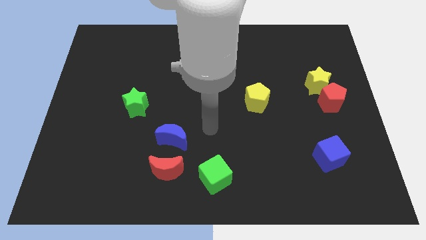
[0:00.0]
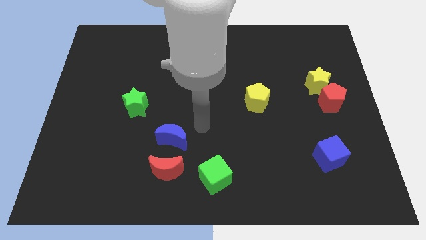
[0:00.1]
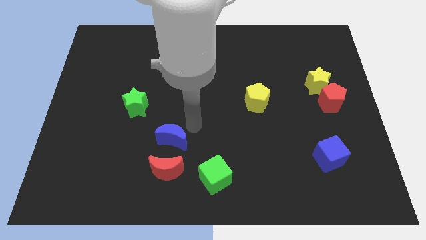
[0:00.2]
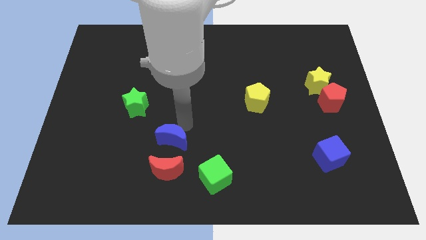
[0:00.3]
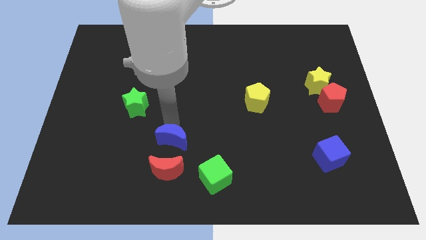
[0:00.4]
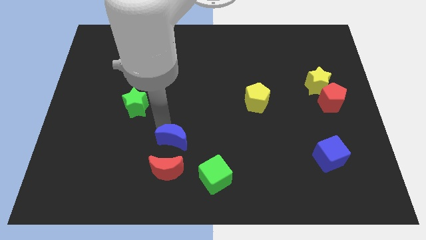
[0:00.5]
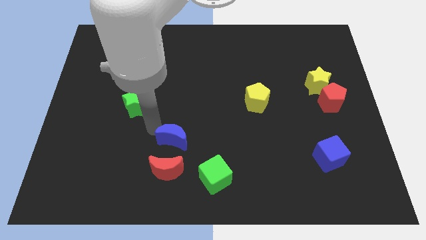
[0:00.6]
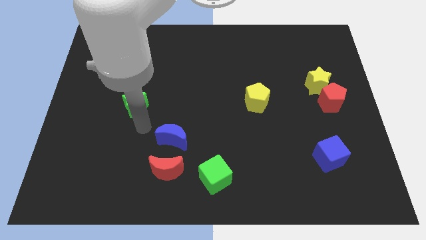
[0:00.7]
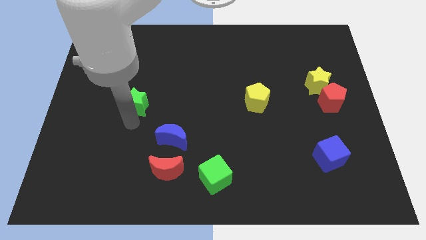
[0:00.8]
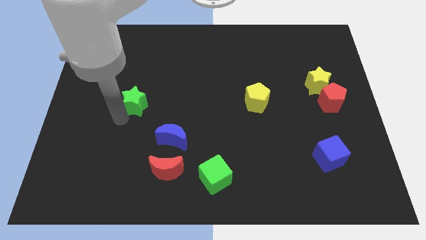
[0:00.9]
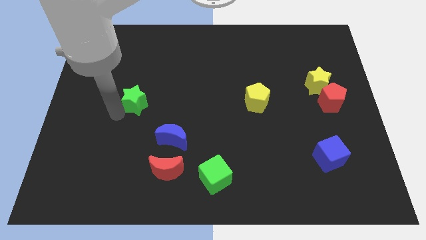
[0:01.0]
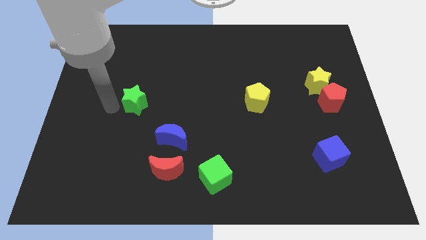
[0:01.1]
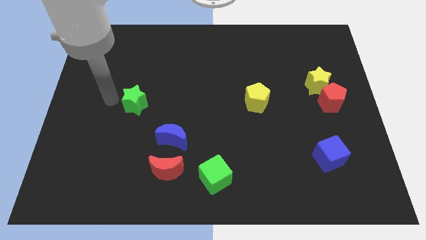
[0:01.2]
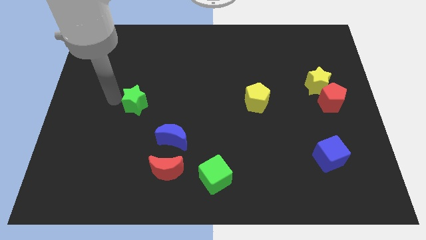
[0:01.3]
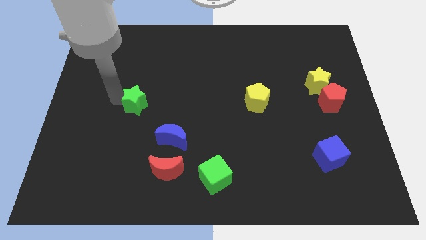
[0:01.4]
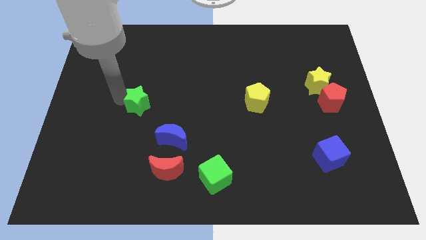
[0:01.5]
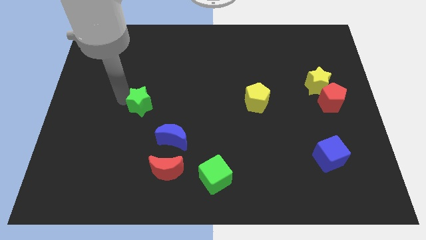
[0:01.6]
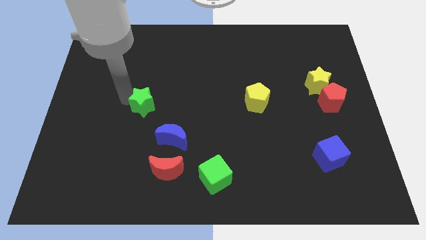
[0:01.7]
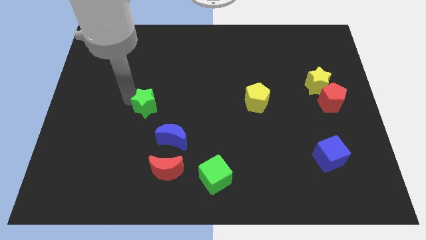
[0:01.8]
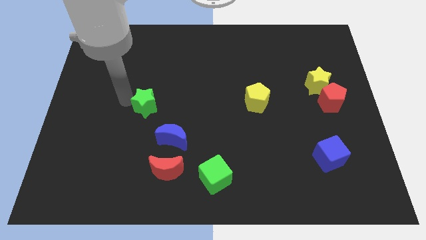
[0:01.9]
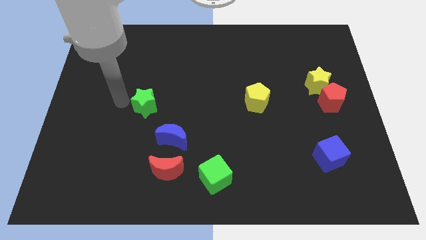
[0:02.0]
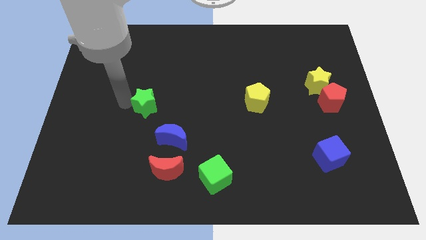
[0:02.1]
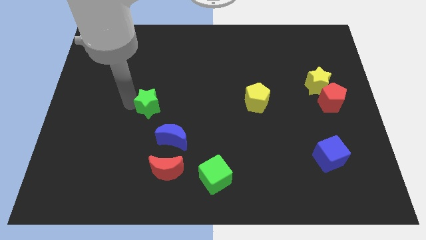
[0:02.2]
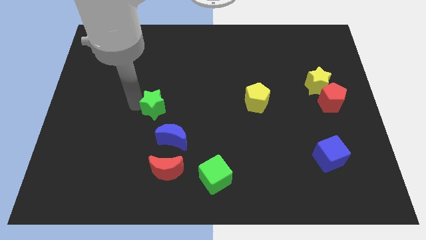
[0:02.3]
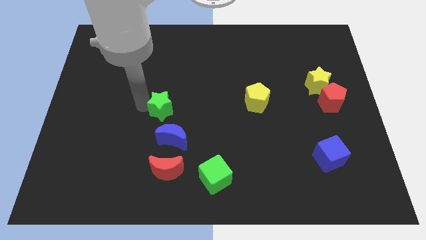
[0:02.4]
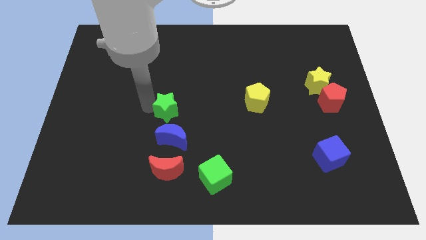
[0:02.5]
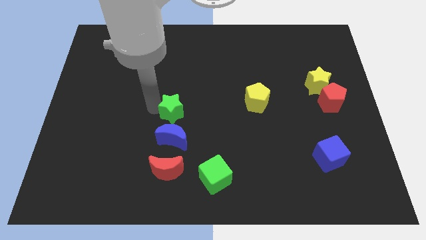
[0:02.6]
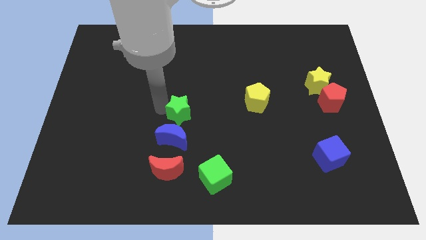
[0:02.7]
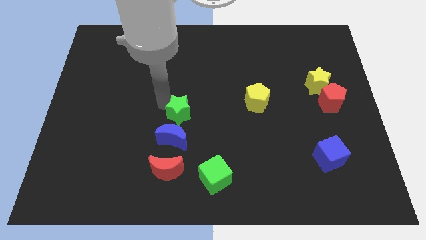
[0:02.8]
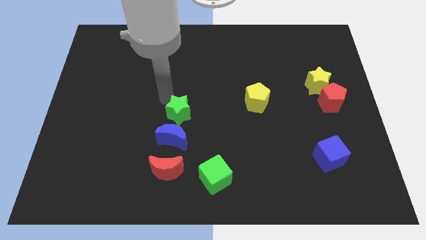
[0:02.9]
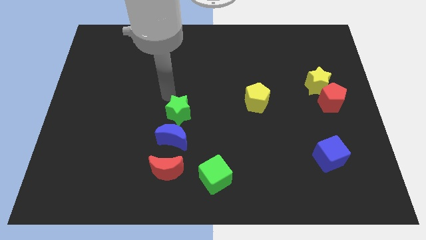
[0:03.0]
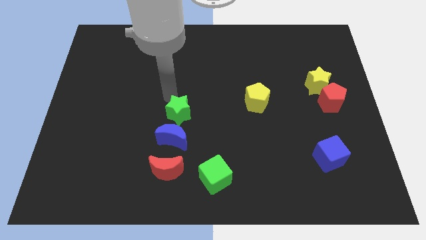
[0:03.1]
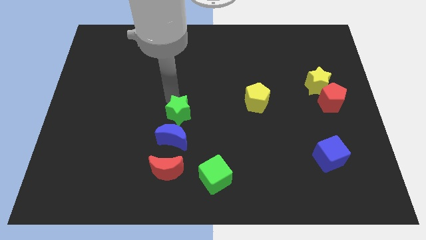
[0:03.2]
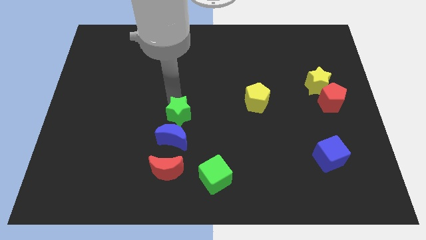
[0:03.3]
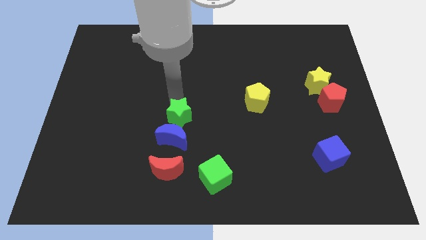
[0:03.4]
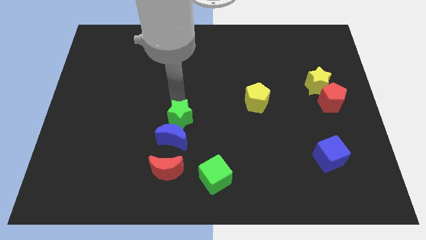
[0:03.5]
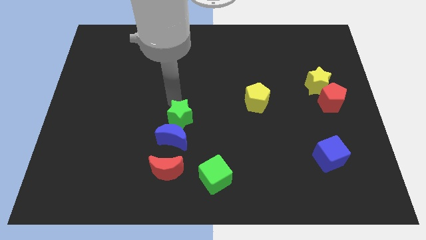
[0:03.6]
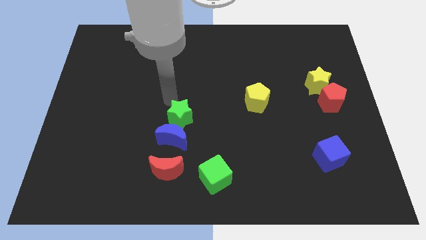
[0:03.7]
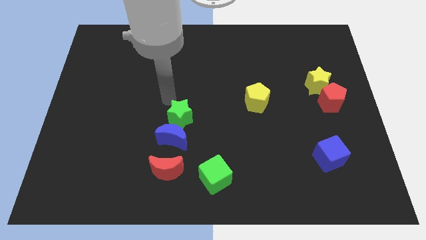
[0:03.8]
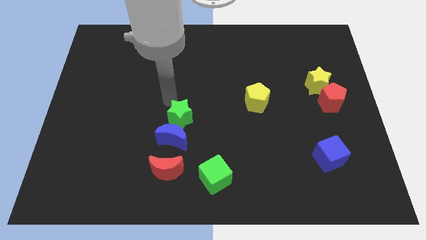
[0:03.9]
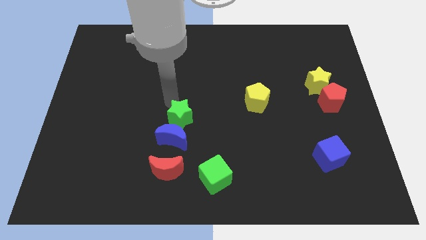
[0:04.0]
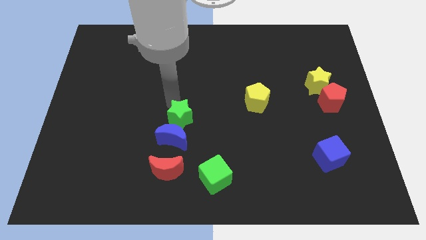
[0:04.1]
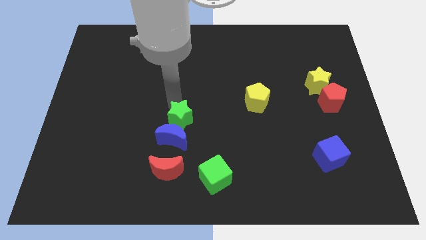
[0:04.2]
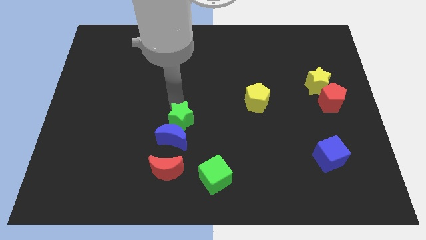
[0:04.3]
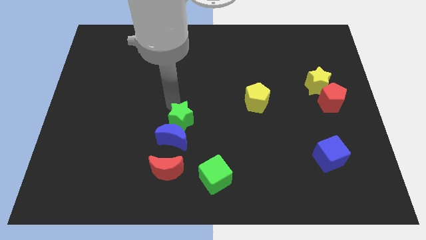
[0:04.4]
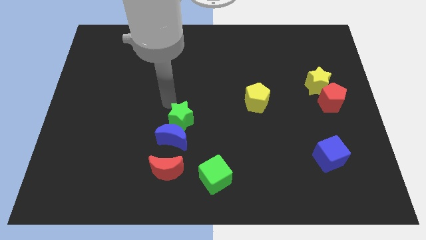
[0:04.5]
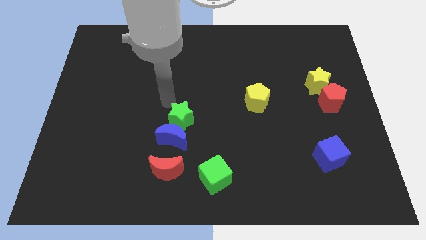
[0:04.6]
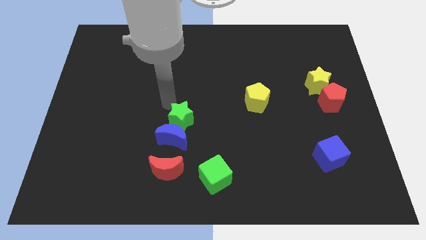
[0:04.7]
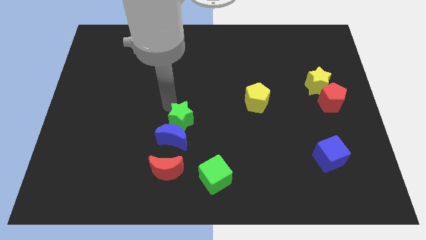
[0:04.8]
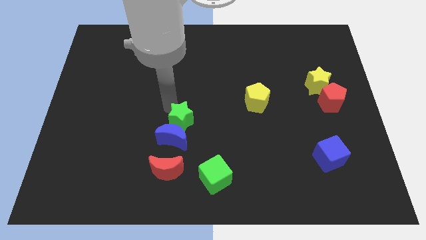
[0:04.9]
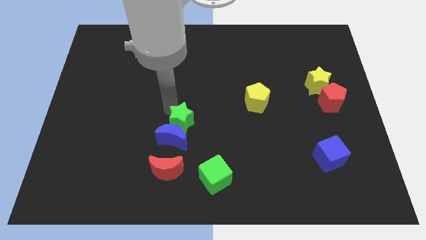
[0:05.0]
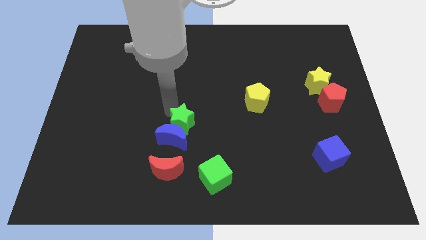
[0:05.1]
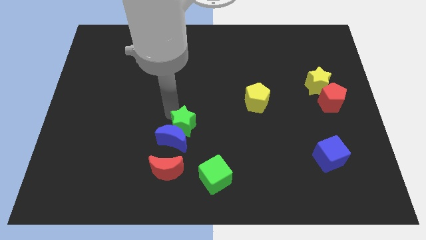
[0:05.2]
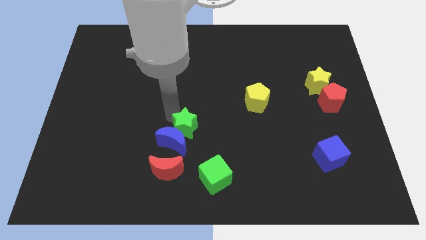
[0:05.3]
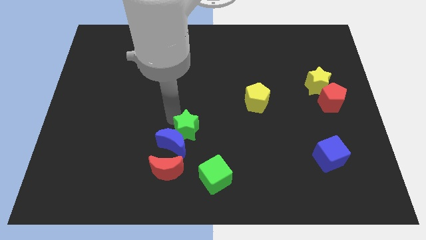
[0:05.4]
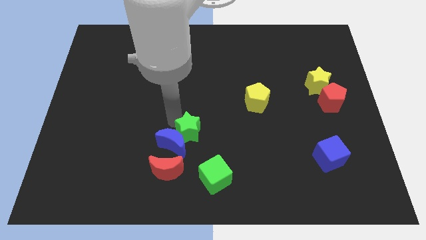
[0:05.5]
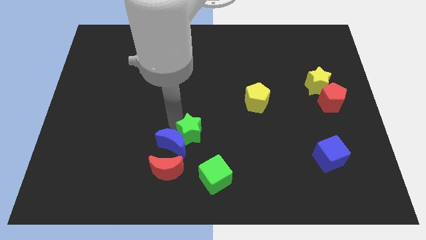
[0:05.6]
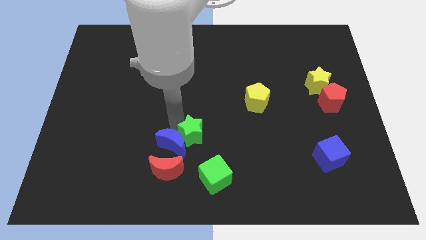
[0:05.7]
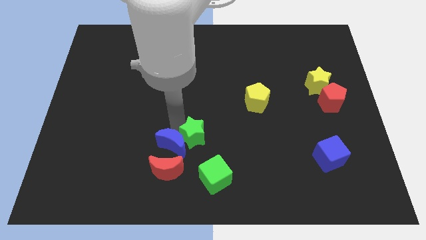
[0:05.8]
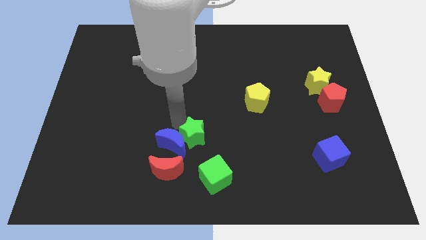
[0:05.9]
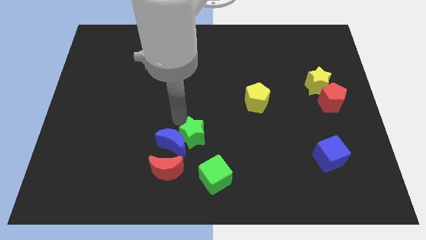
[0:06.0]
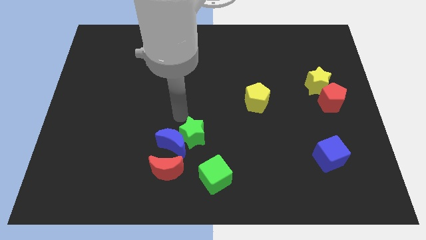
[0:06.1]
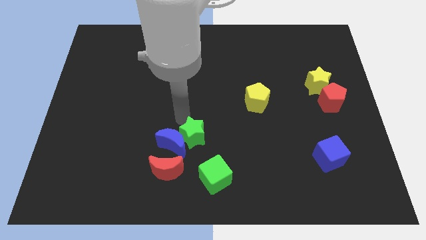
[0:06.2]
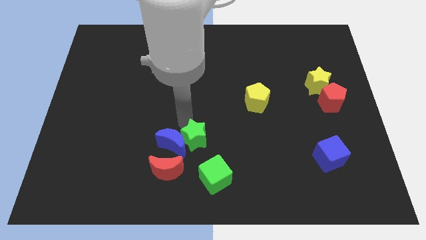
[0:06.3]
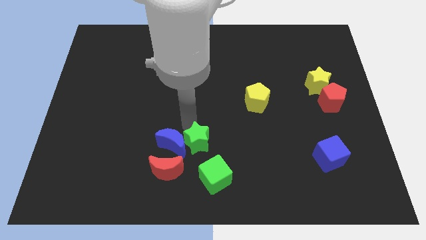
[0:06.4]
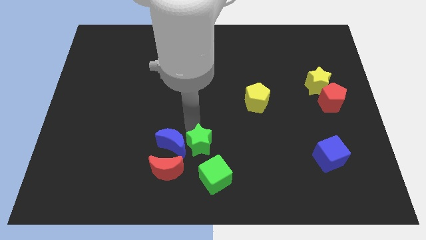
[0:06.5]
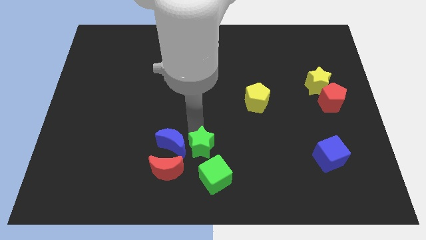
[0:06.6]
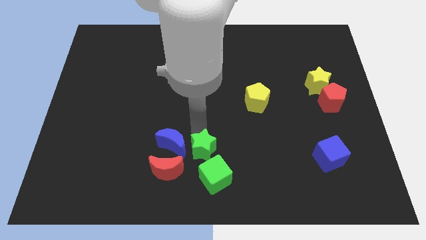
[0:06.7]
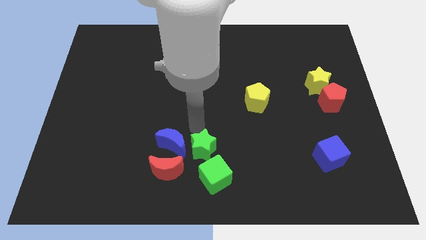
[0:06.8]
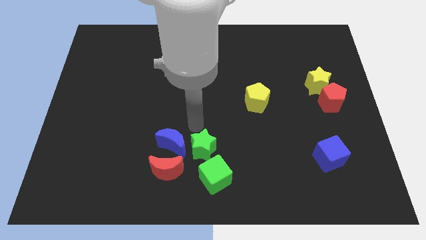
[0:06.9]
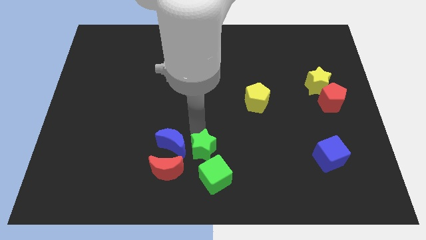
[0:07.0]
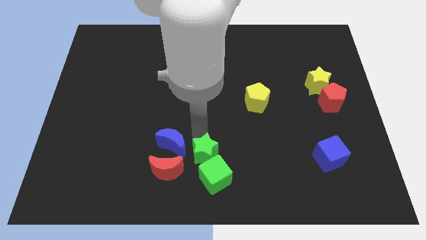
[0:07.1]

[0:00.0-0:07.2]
move the green star next to the green cube

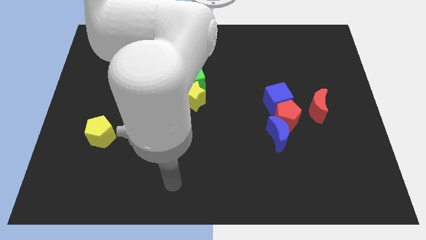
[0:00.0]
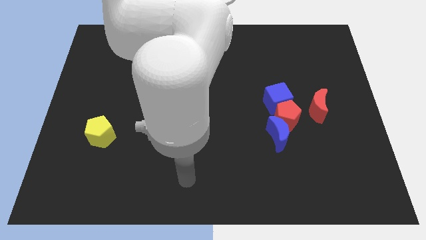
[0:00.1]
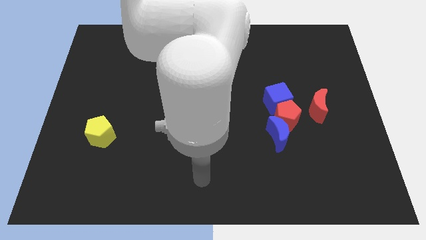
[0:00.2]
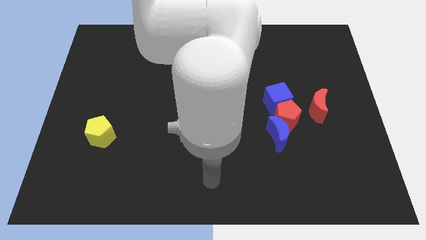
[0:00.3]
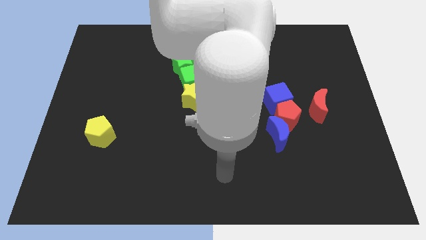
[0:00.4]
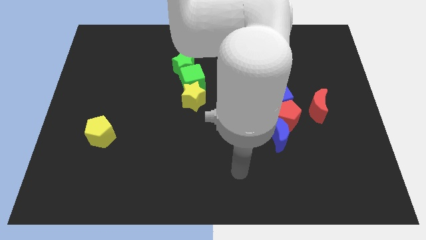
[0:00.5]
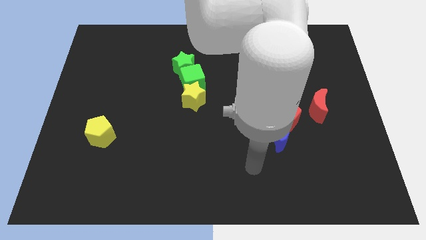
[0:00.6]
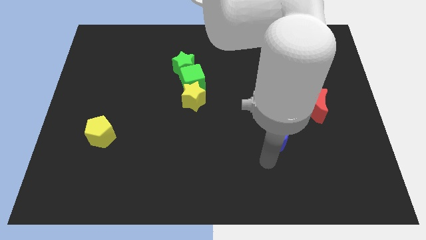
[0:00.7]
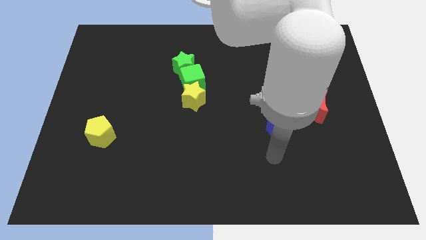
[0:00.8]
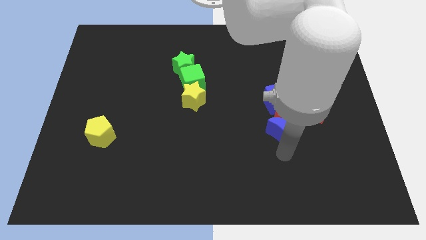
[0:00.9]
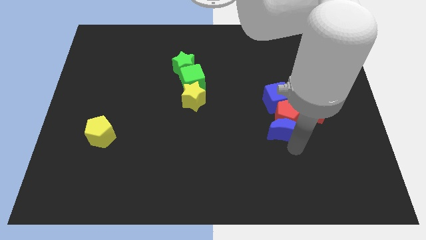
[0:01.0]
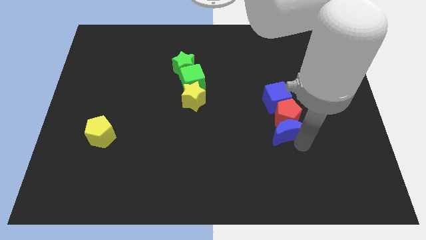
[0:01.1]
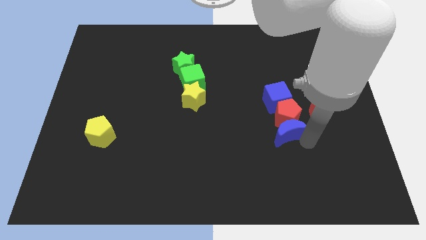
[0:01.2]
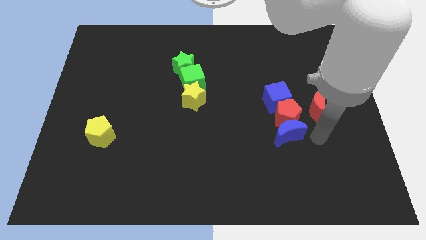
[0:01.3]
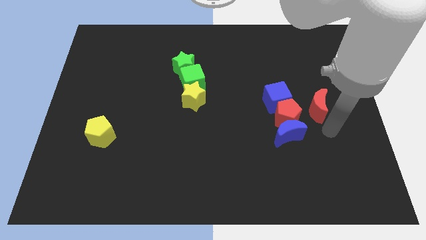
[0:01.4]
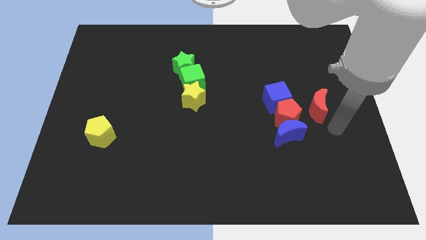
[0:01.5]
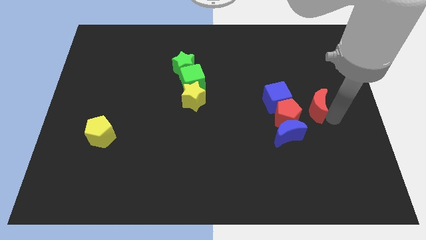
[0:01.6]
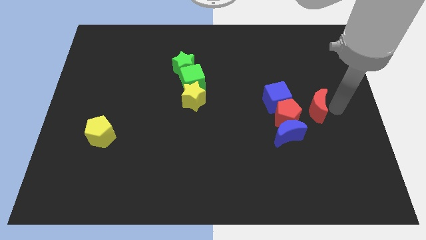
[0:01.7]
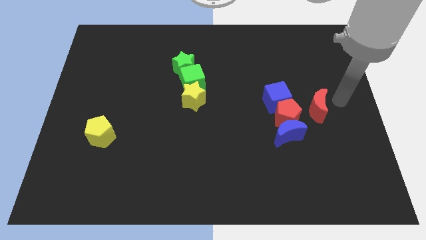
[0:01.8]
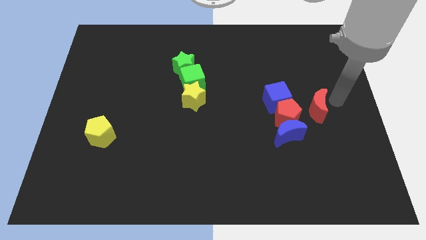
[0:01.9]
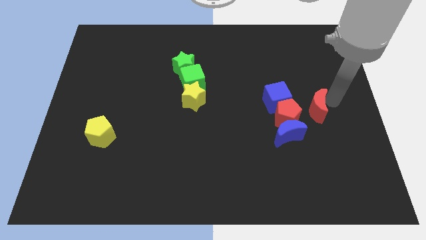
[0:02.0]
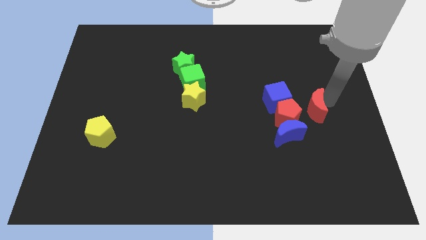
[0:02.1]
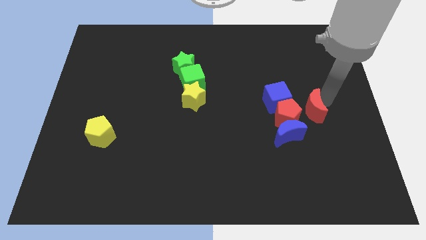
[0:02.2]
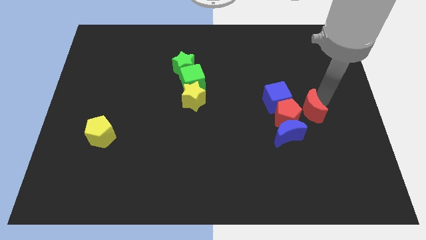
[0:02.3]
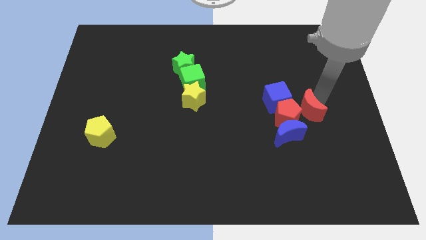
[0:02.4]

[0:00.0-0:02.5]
slide the red moon close to the red pentagon
